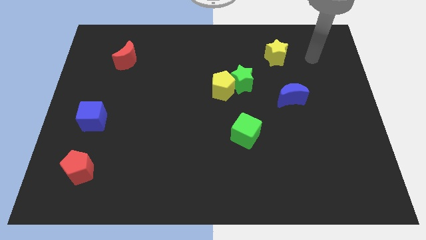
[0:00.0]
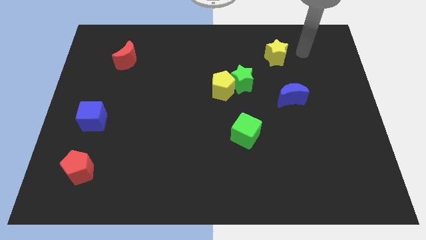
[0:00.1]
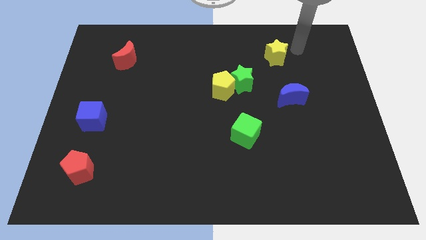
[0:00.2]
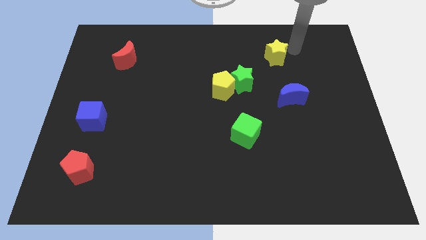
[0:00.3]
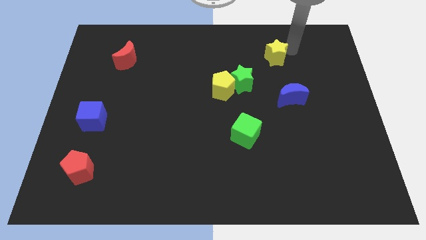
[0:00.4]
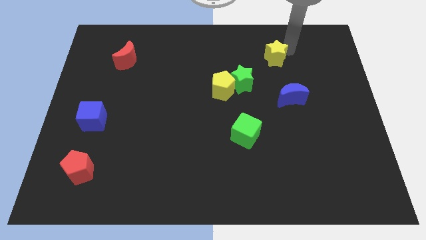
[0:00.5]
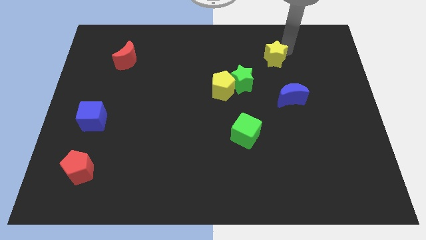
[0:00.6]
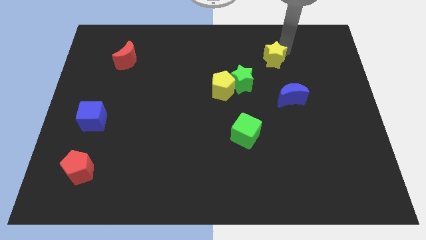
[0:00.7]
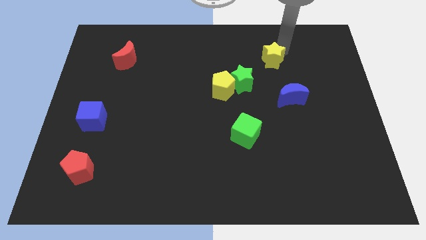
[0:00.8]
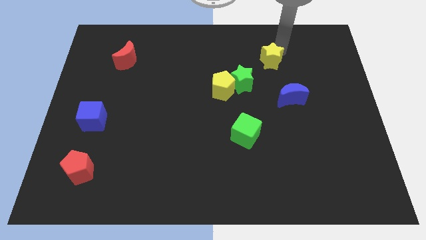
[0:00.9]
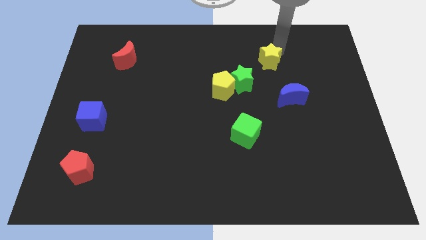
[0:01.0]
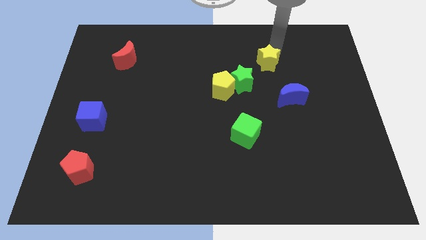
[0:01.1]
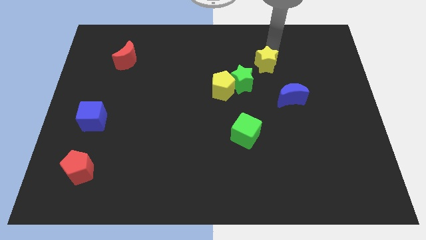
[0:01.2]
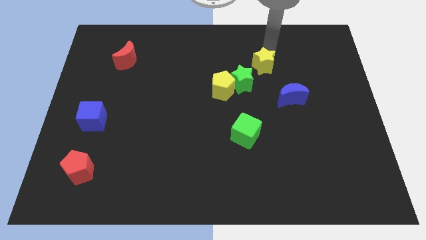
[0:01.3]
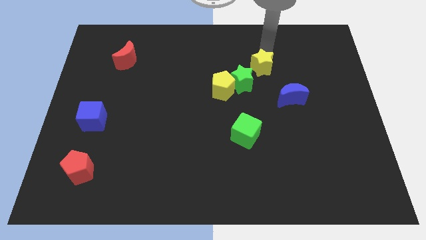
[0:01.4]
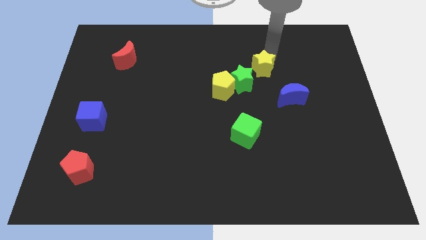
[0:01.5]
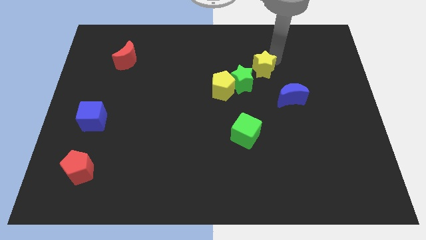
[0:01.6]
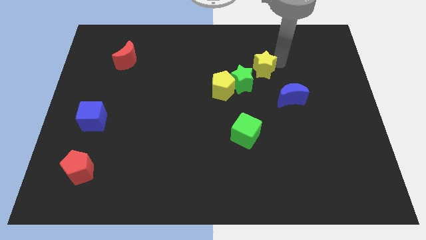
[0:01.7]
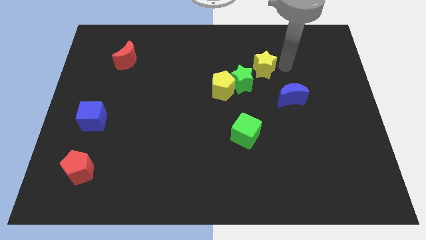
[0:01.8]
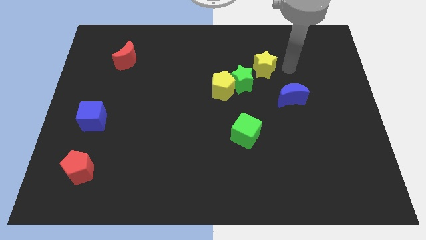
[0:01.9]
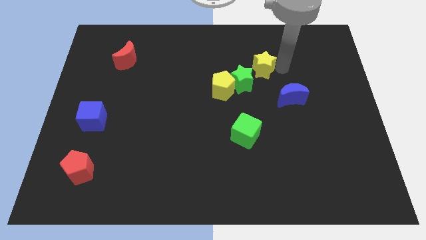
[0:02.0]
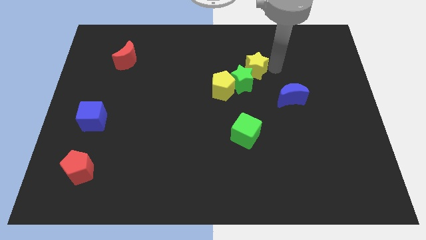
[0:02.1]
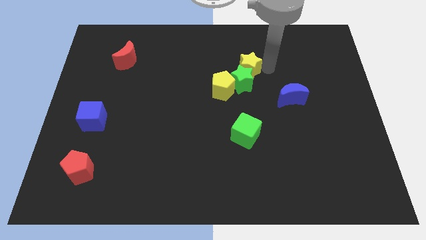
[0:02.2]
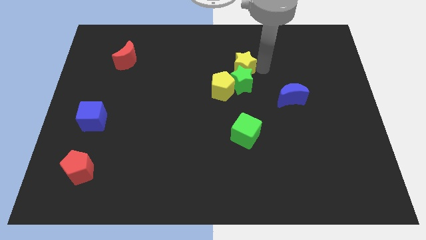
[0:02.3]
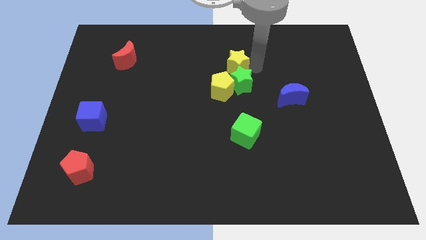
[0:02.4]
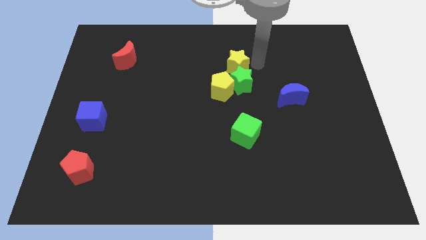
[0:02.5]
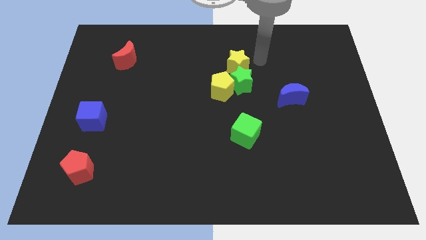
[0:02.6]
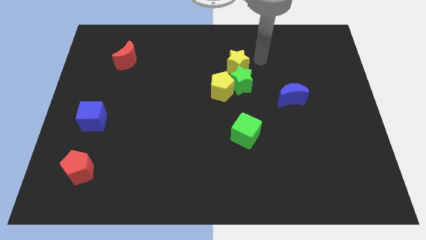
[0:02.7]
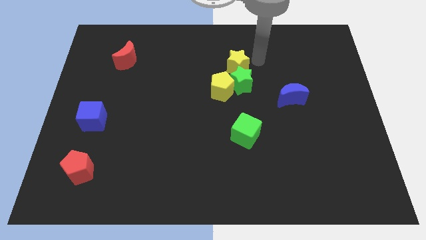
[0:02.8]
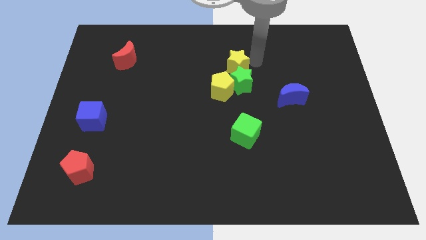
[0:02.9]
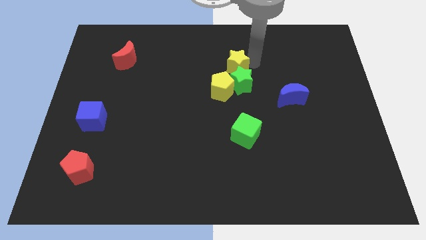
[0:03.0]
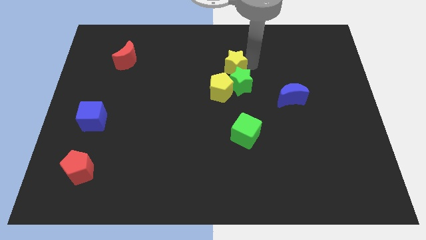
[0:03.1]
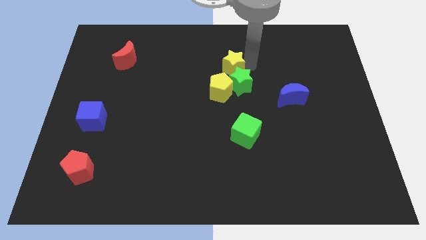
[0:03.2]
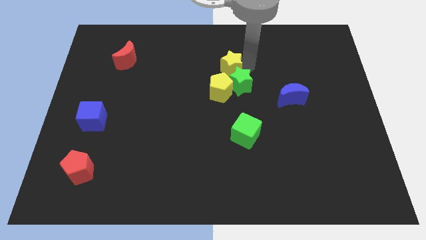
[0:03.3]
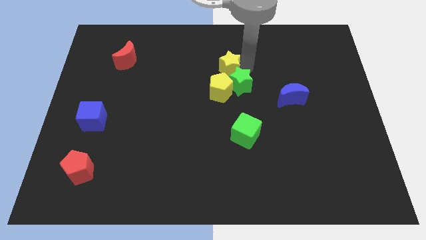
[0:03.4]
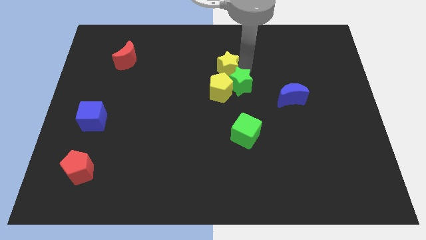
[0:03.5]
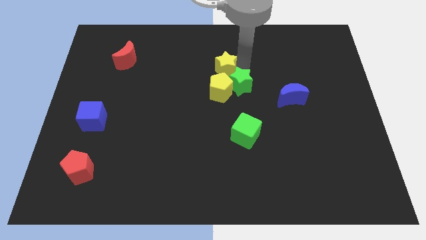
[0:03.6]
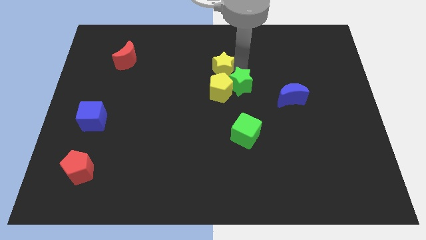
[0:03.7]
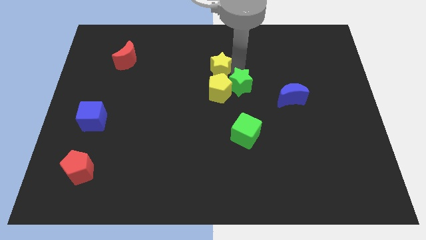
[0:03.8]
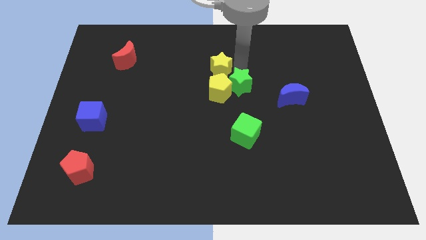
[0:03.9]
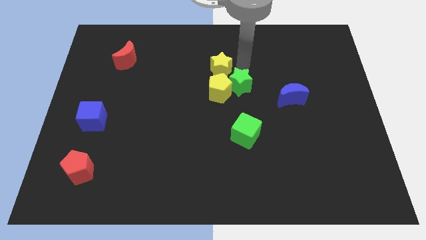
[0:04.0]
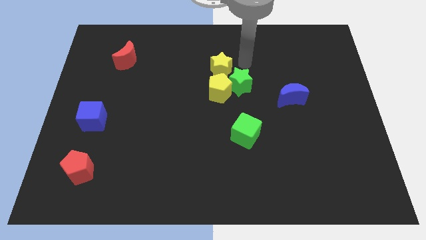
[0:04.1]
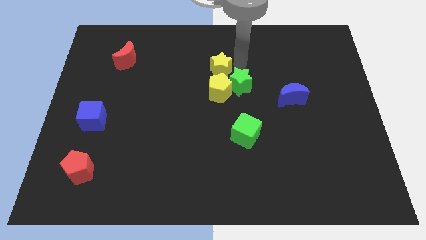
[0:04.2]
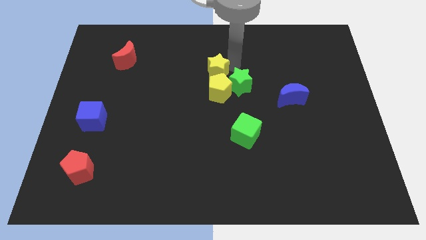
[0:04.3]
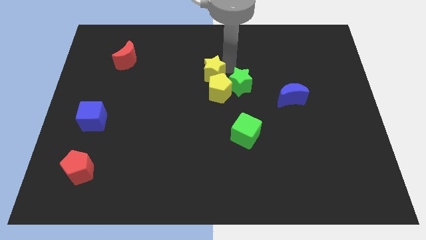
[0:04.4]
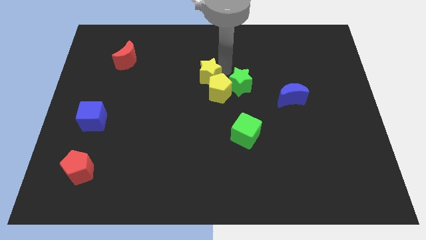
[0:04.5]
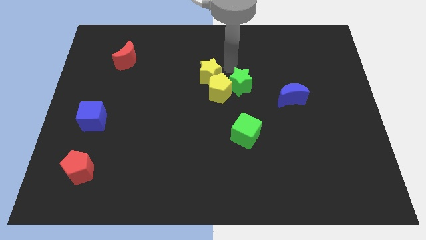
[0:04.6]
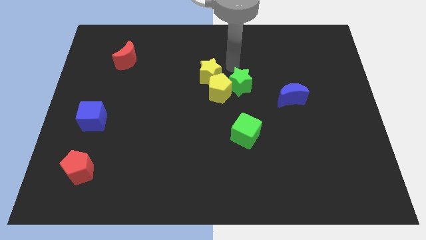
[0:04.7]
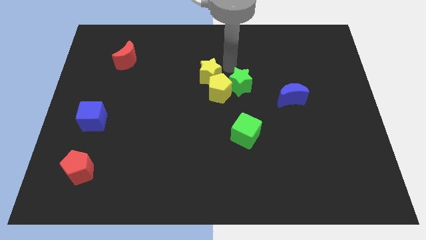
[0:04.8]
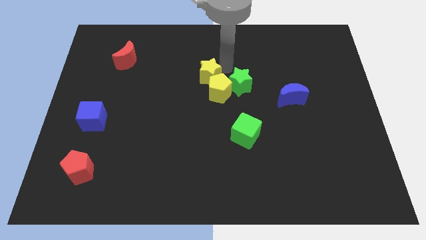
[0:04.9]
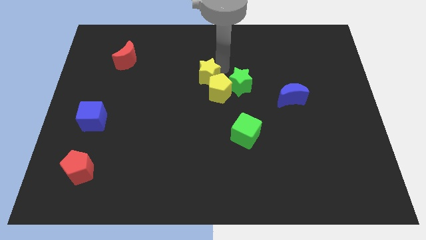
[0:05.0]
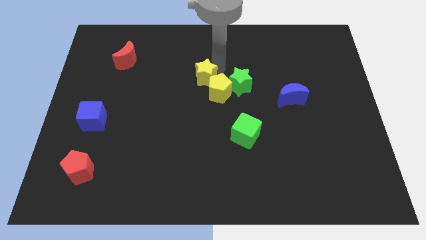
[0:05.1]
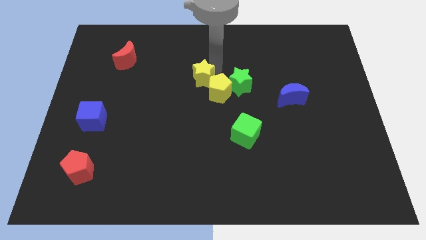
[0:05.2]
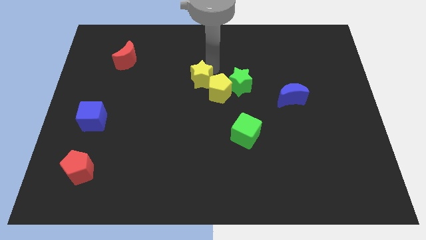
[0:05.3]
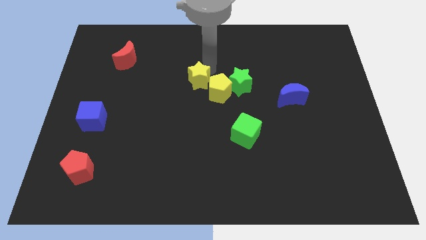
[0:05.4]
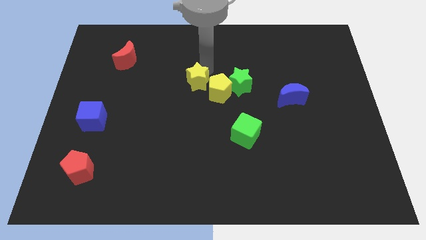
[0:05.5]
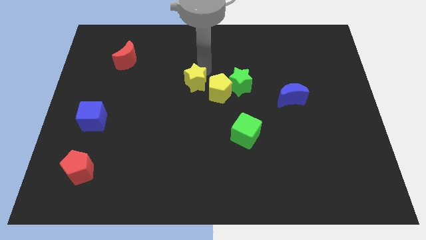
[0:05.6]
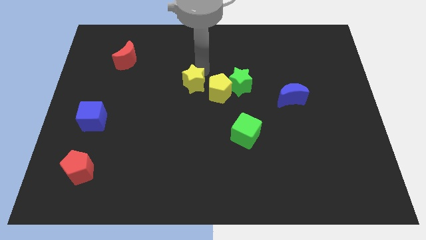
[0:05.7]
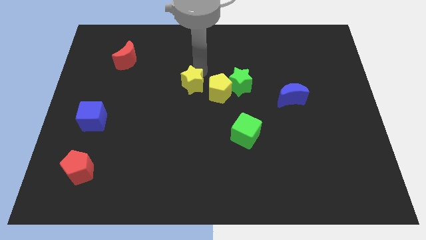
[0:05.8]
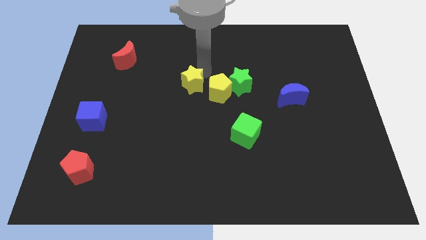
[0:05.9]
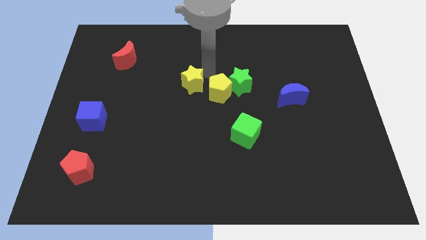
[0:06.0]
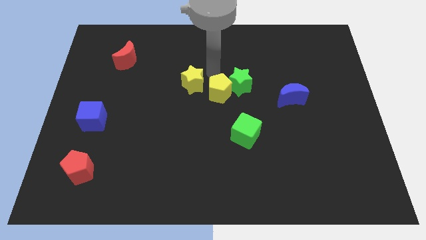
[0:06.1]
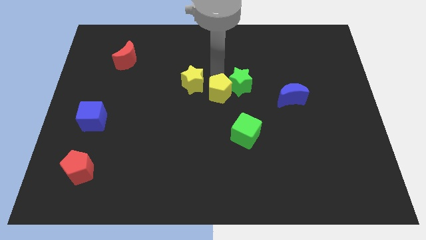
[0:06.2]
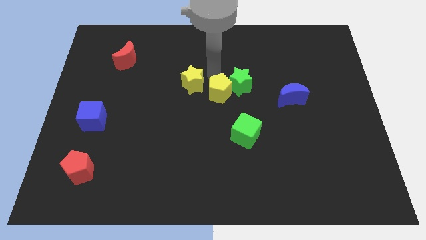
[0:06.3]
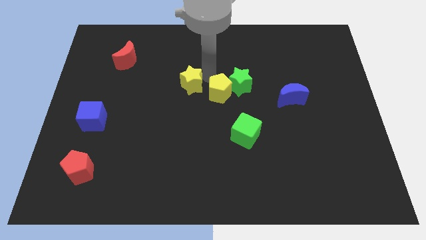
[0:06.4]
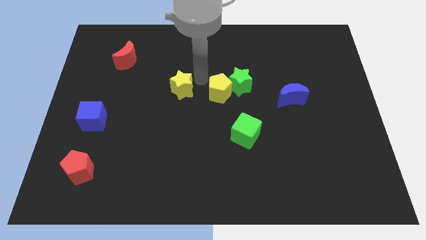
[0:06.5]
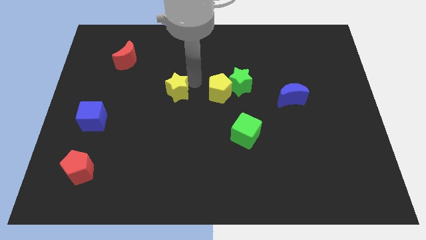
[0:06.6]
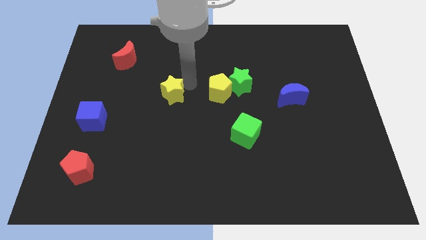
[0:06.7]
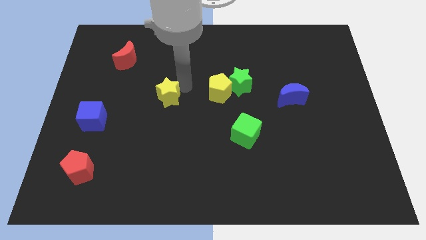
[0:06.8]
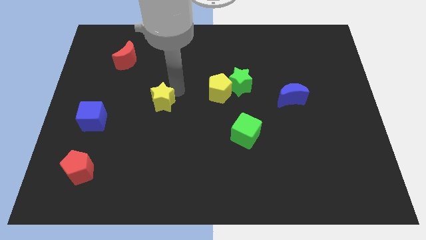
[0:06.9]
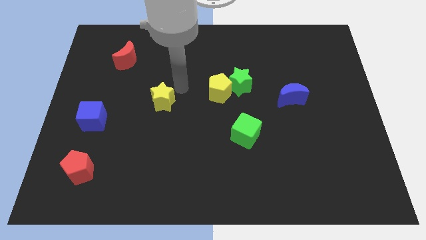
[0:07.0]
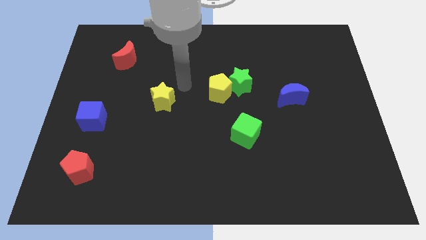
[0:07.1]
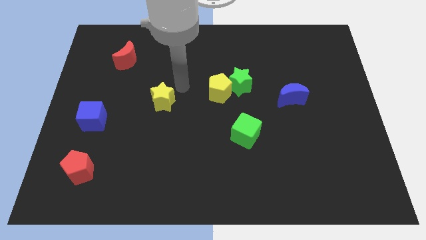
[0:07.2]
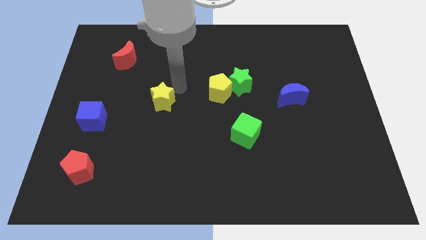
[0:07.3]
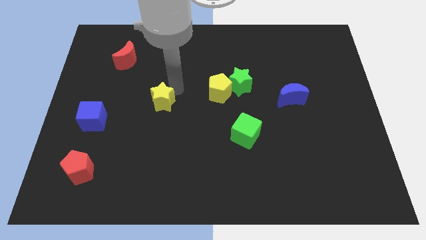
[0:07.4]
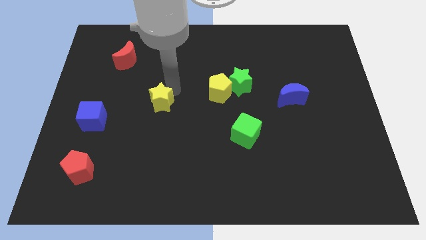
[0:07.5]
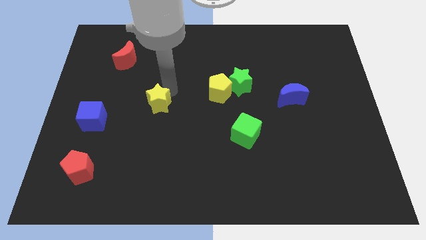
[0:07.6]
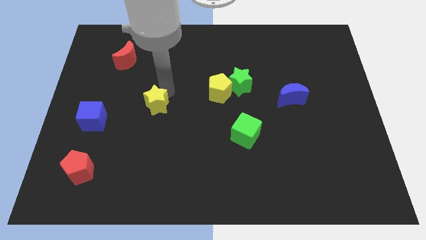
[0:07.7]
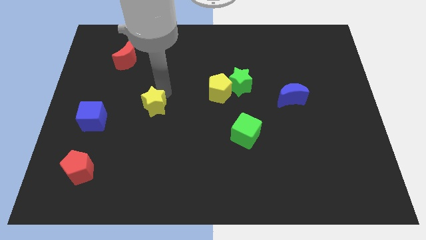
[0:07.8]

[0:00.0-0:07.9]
put the yellow star just right of the blue cube
